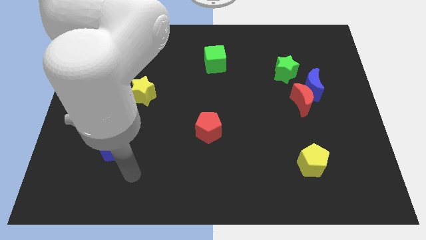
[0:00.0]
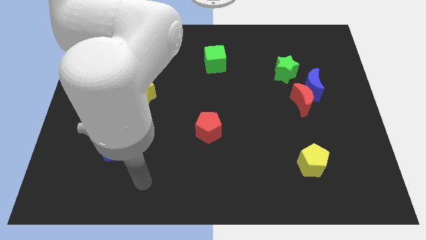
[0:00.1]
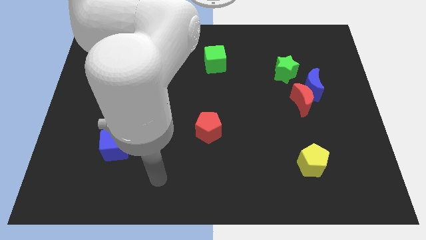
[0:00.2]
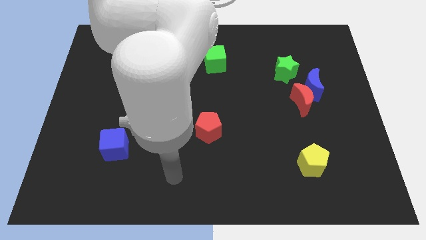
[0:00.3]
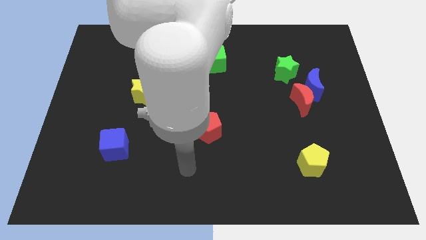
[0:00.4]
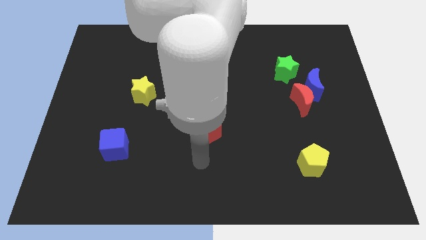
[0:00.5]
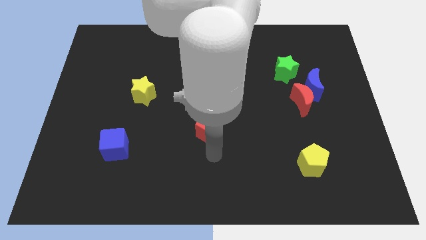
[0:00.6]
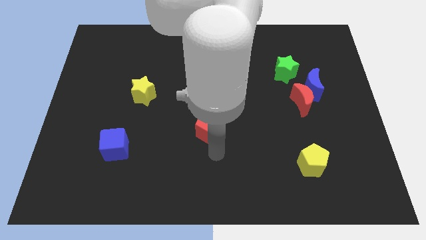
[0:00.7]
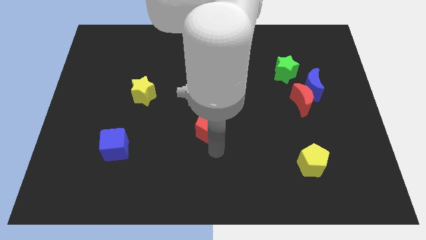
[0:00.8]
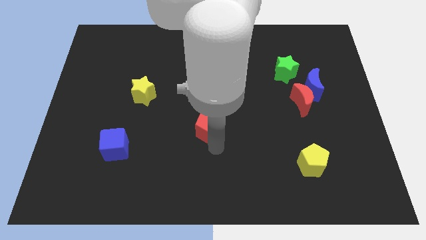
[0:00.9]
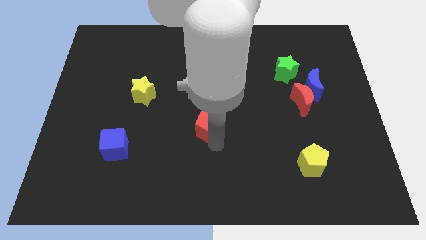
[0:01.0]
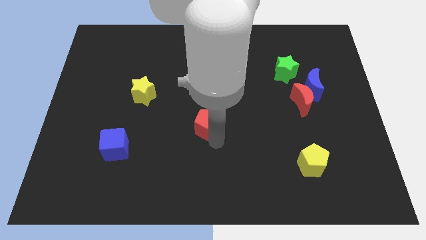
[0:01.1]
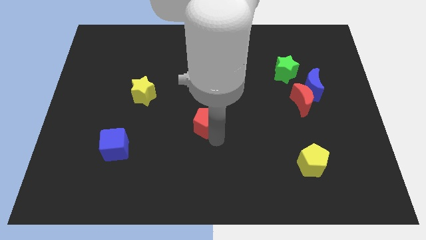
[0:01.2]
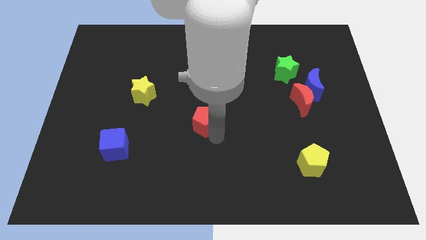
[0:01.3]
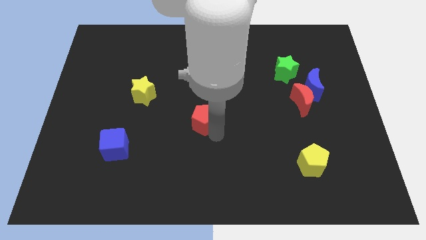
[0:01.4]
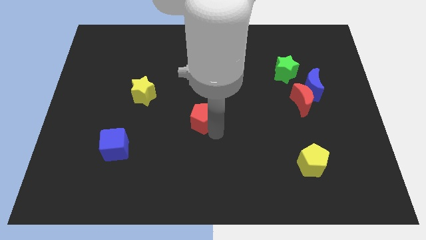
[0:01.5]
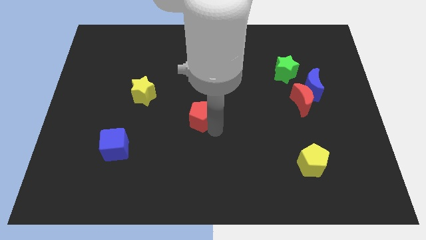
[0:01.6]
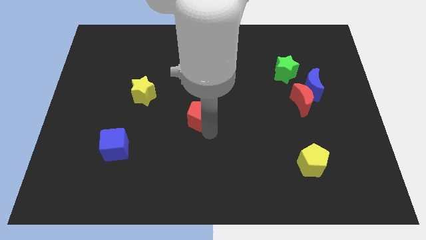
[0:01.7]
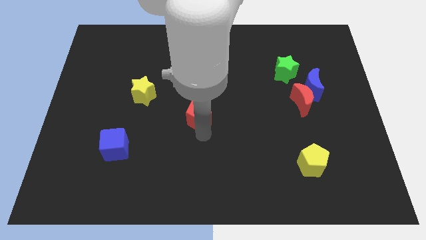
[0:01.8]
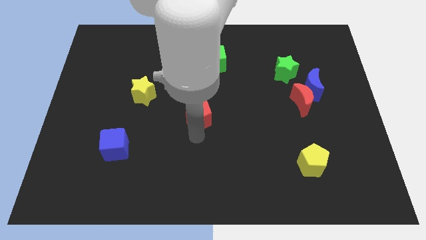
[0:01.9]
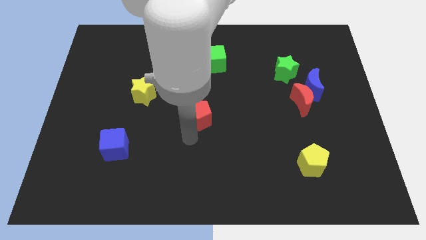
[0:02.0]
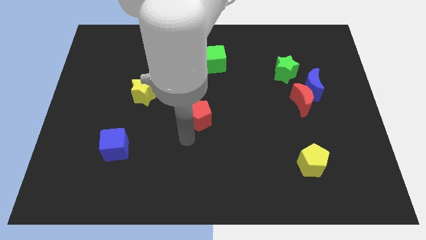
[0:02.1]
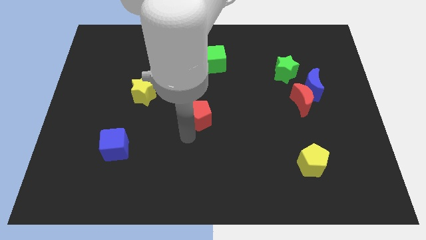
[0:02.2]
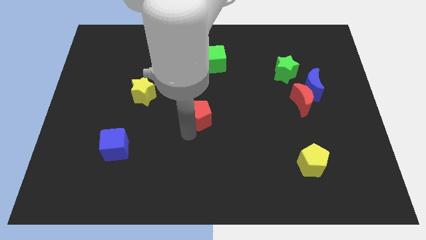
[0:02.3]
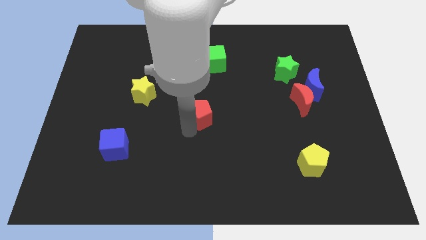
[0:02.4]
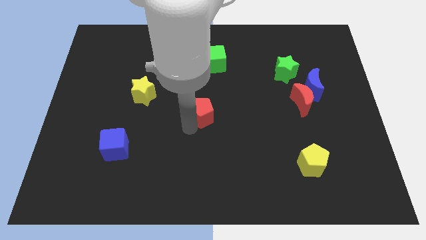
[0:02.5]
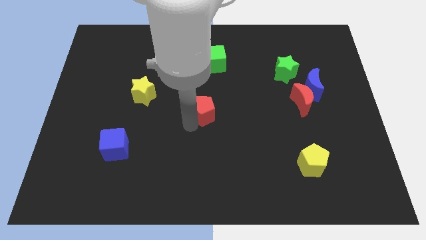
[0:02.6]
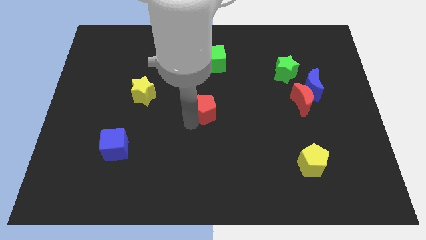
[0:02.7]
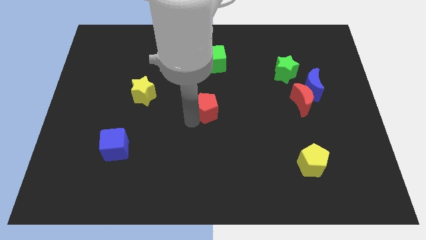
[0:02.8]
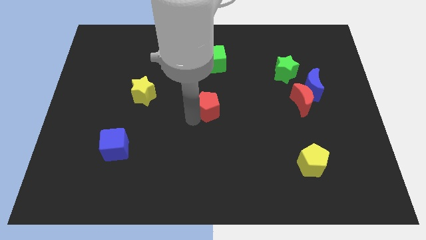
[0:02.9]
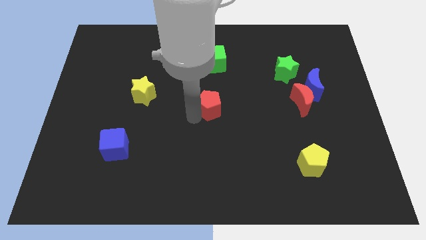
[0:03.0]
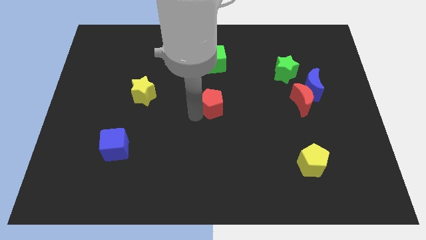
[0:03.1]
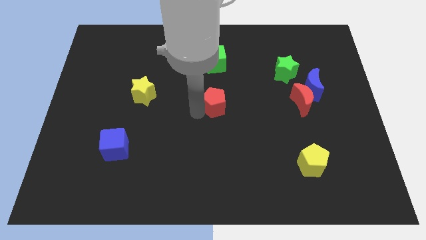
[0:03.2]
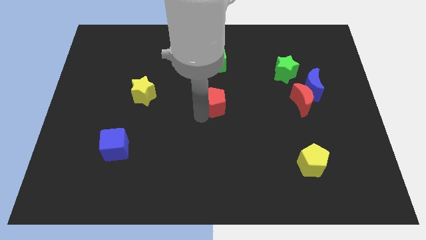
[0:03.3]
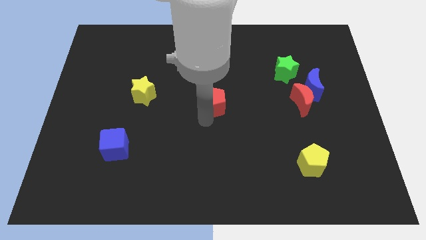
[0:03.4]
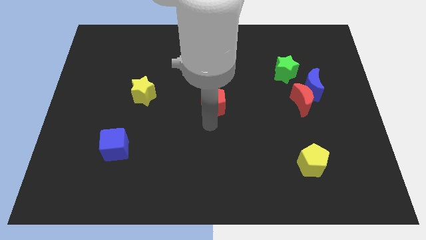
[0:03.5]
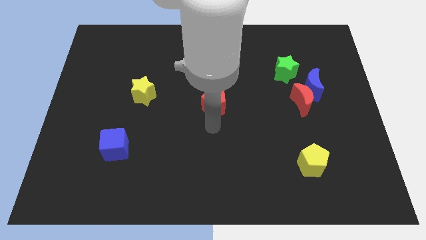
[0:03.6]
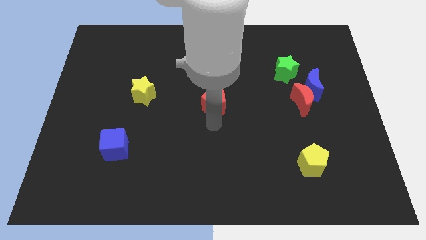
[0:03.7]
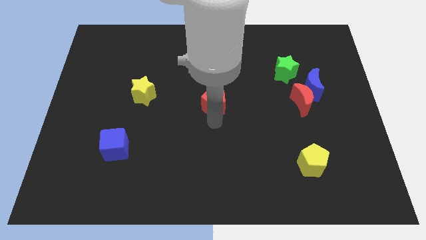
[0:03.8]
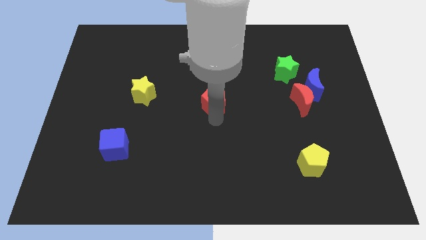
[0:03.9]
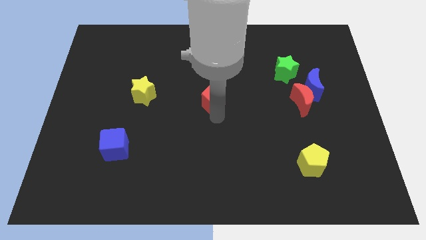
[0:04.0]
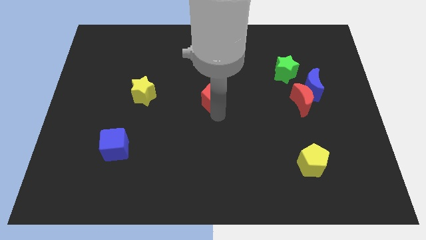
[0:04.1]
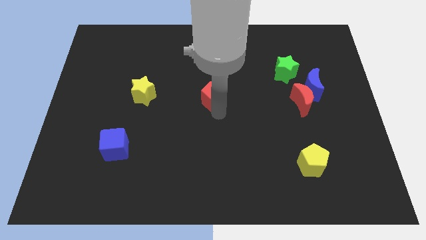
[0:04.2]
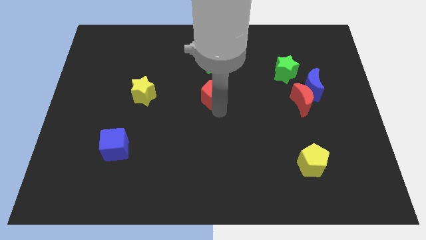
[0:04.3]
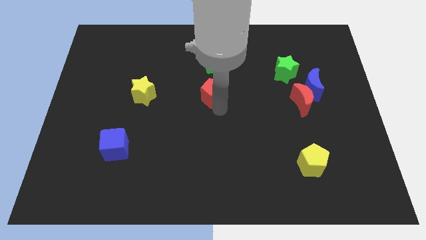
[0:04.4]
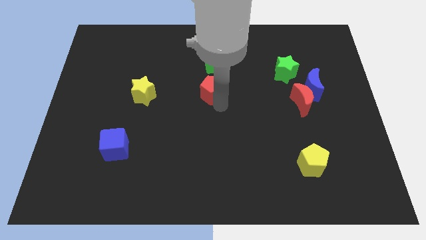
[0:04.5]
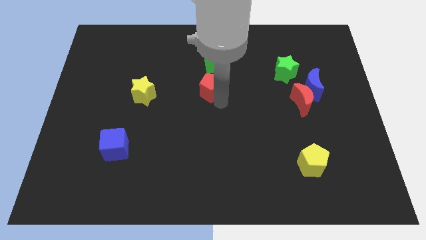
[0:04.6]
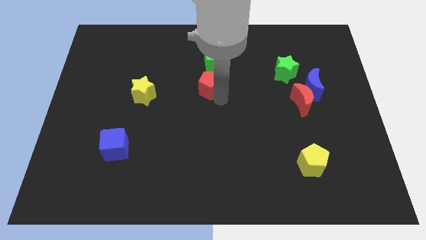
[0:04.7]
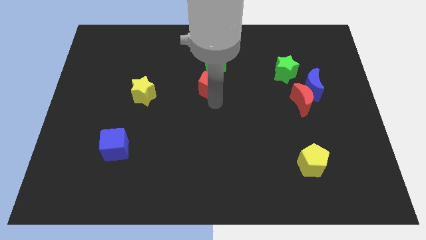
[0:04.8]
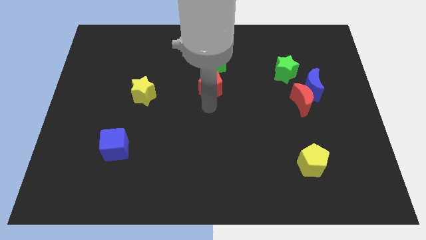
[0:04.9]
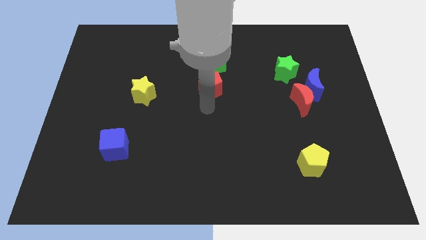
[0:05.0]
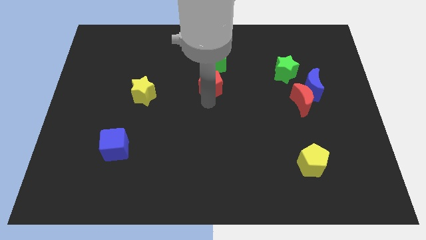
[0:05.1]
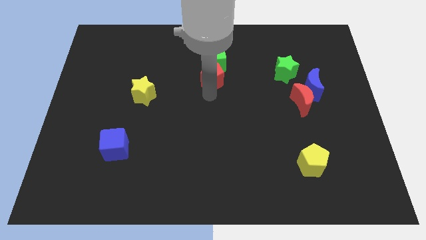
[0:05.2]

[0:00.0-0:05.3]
slide the red pentagon to the green cube

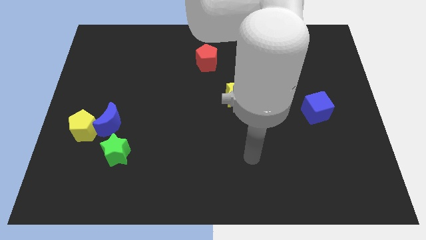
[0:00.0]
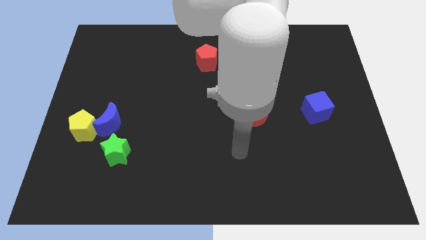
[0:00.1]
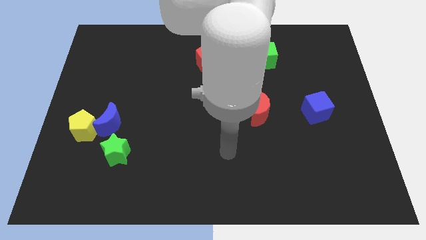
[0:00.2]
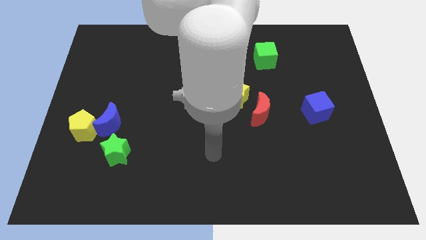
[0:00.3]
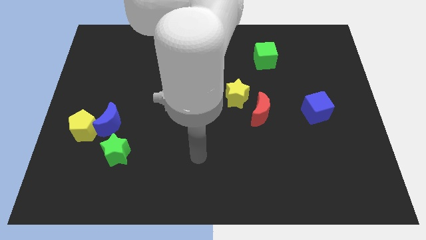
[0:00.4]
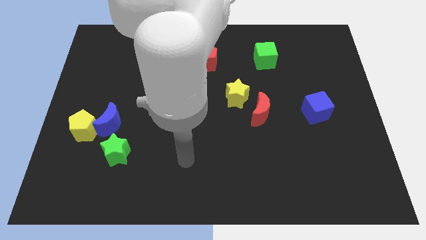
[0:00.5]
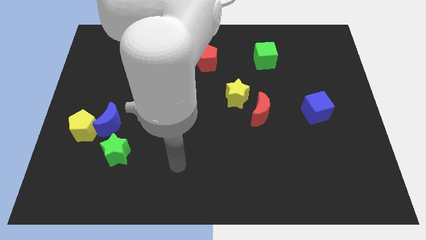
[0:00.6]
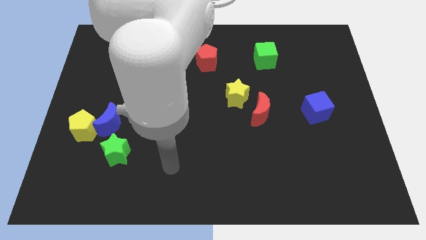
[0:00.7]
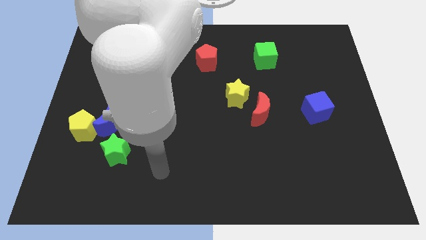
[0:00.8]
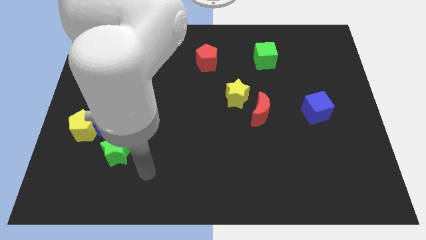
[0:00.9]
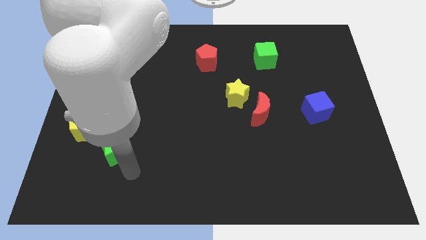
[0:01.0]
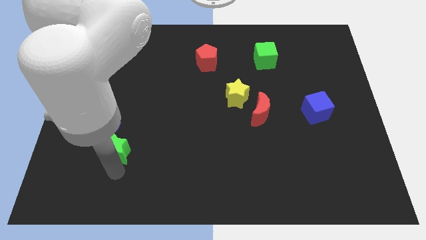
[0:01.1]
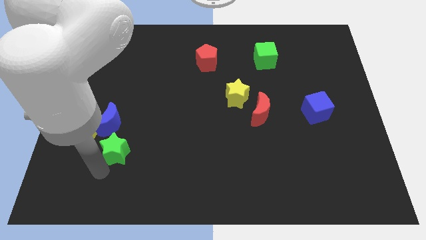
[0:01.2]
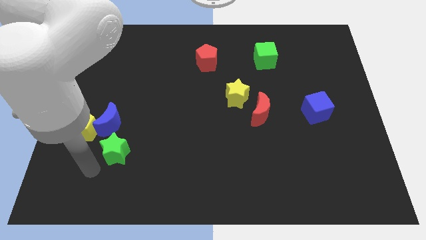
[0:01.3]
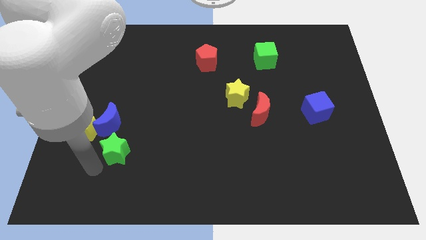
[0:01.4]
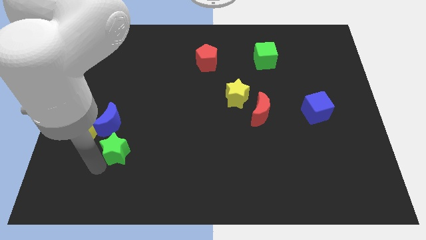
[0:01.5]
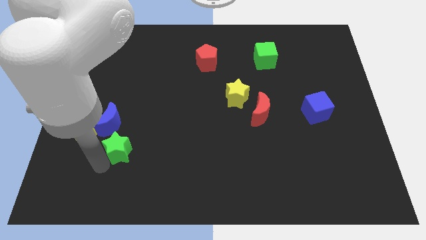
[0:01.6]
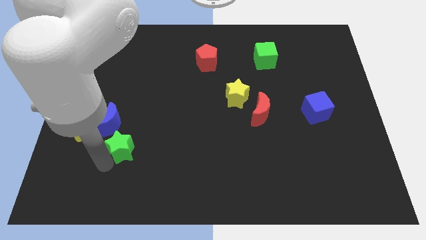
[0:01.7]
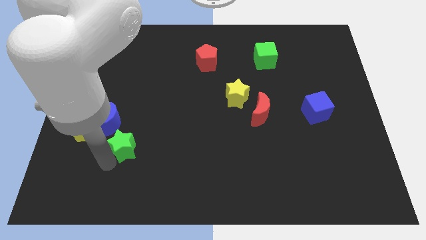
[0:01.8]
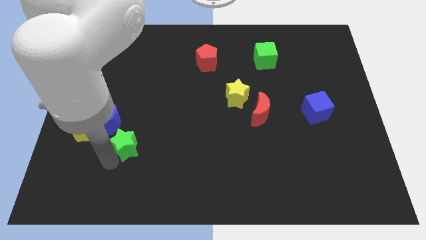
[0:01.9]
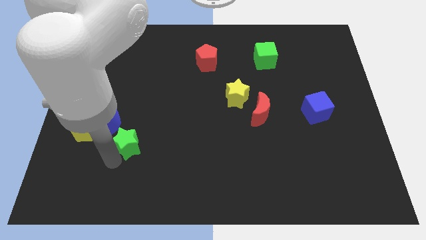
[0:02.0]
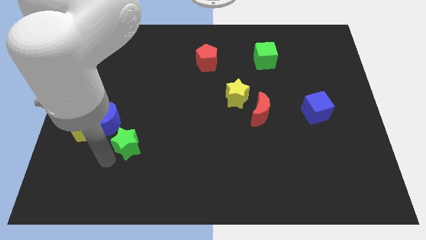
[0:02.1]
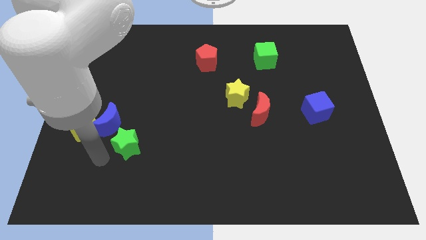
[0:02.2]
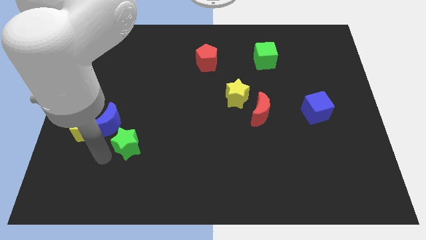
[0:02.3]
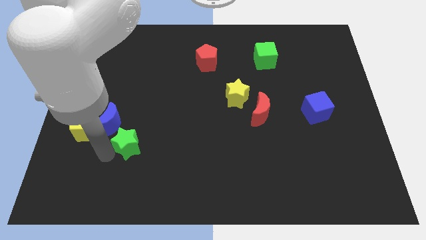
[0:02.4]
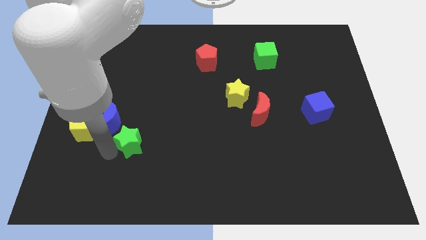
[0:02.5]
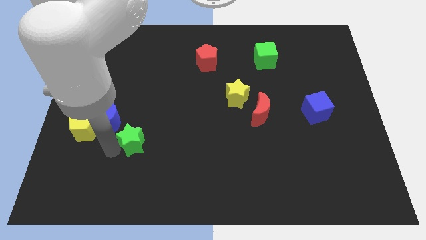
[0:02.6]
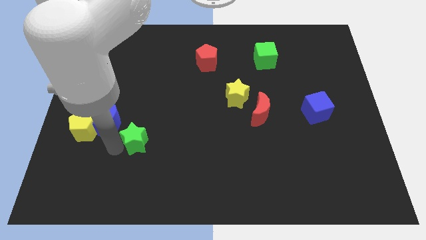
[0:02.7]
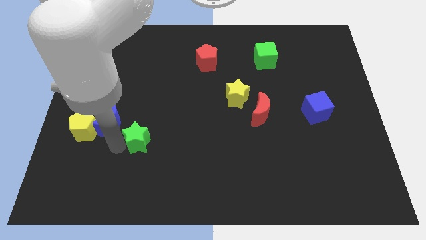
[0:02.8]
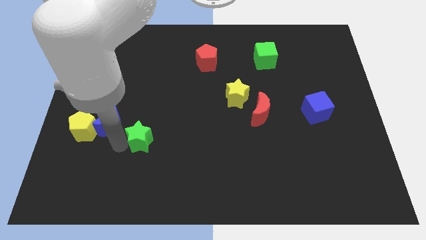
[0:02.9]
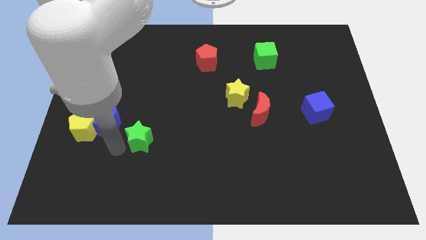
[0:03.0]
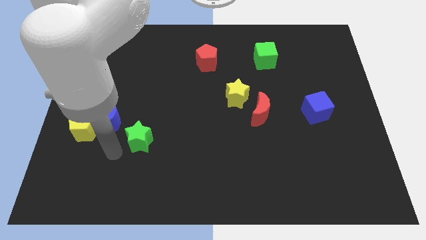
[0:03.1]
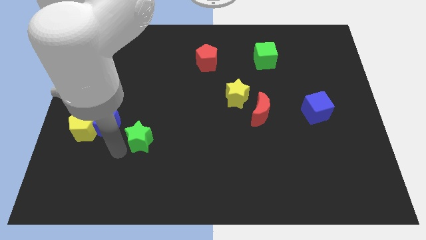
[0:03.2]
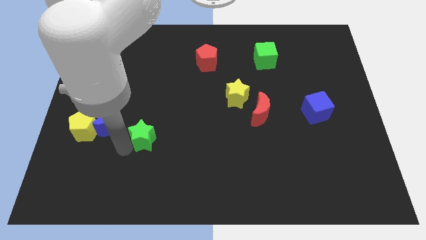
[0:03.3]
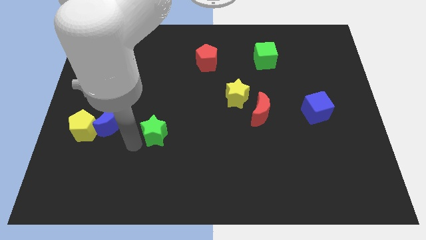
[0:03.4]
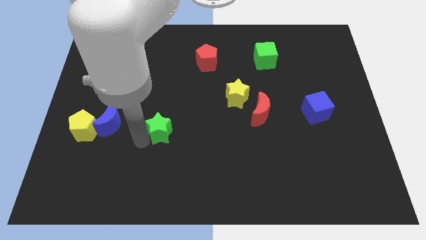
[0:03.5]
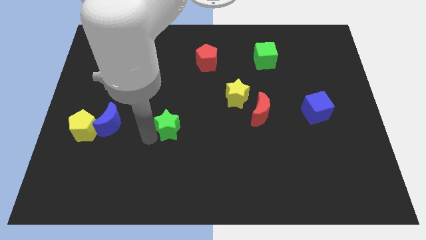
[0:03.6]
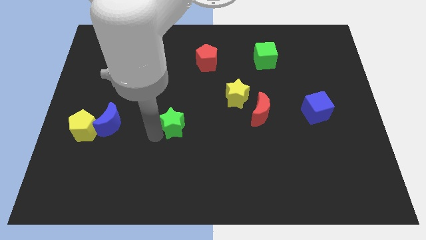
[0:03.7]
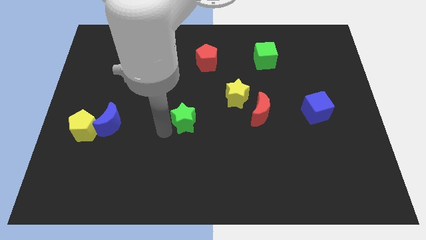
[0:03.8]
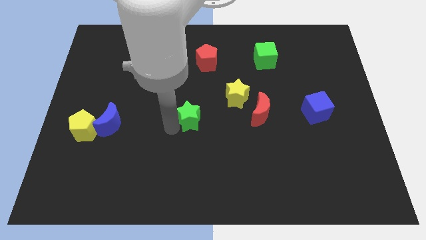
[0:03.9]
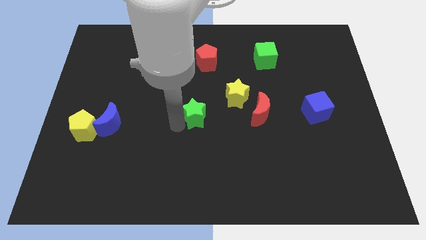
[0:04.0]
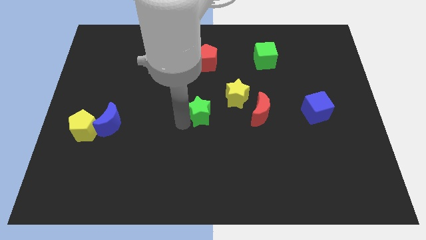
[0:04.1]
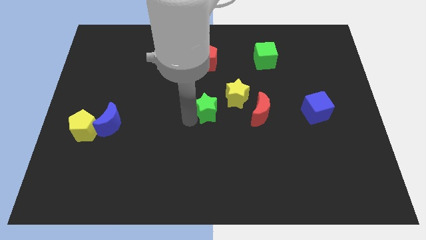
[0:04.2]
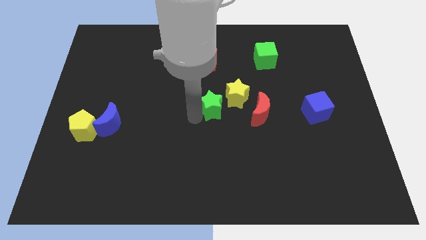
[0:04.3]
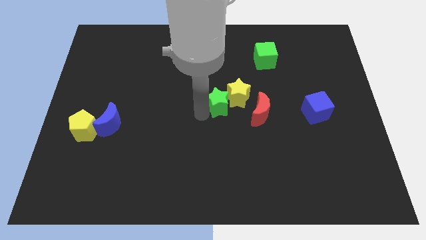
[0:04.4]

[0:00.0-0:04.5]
put the green star to the yellow star
